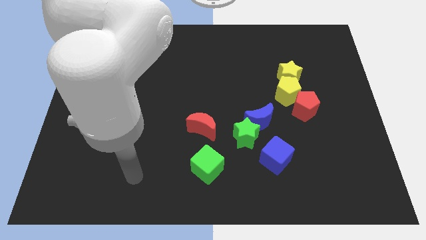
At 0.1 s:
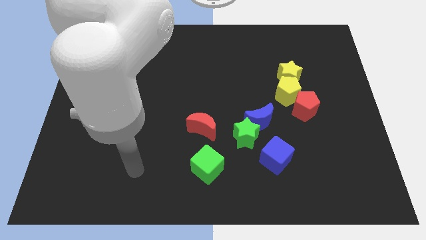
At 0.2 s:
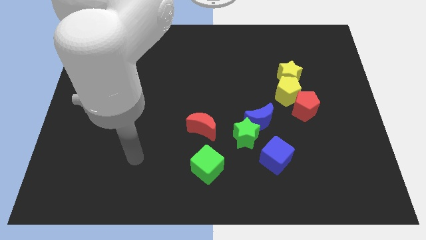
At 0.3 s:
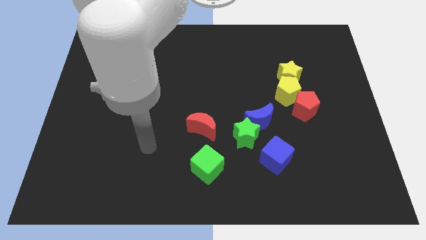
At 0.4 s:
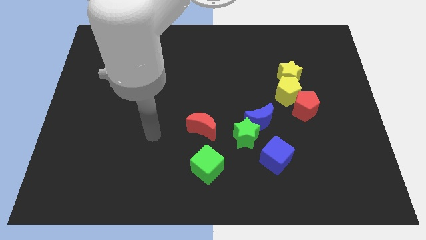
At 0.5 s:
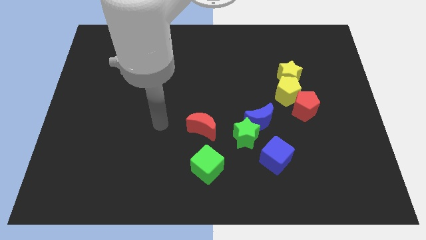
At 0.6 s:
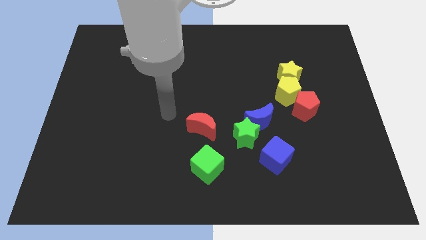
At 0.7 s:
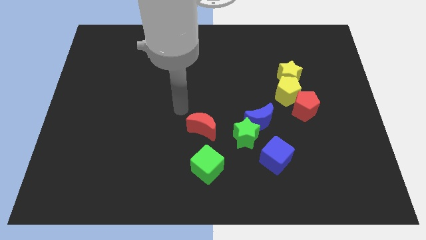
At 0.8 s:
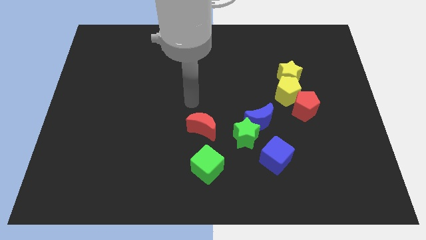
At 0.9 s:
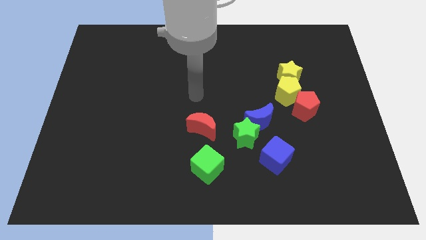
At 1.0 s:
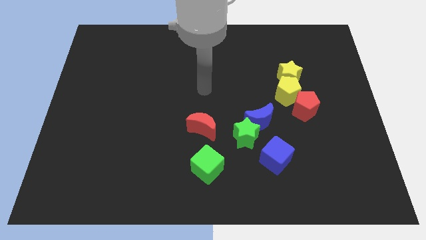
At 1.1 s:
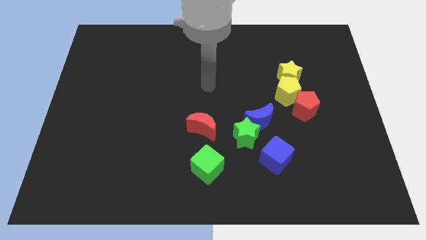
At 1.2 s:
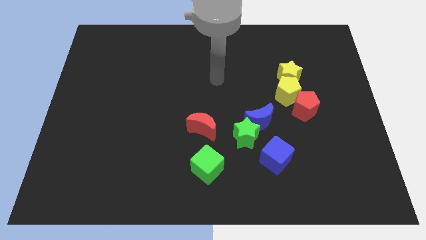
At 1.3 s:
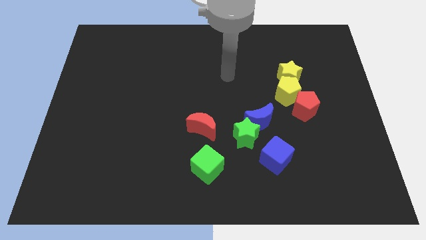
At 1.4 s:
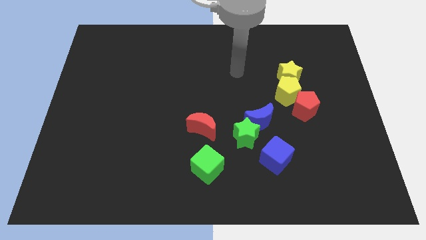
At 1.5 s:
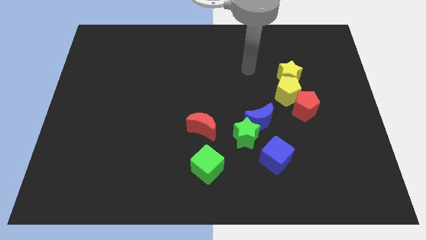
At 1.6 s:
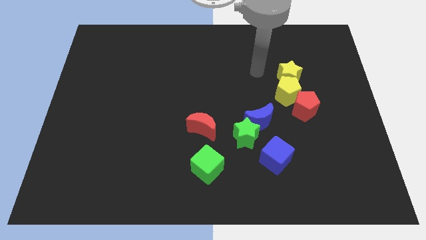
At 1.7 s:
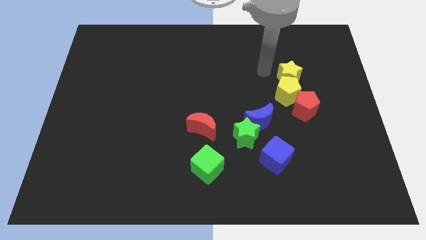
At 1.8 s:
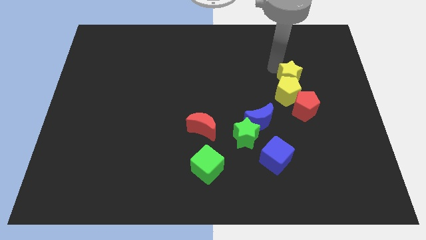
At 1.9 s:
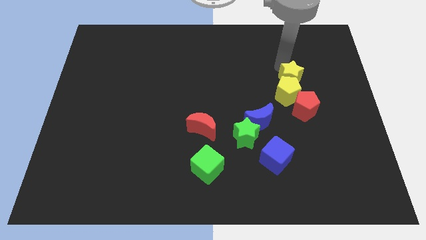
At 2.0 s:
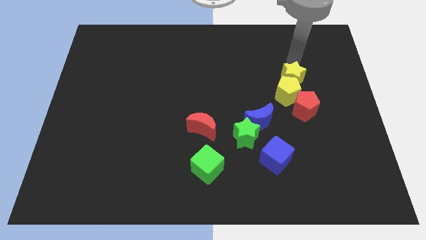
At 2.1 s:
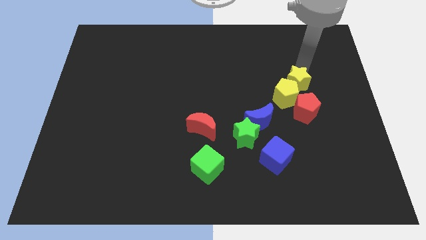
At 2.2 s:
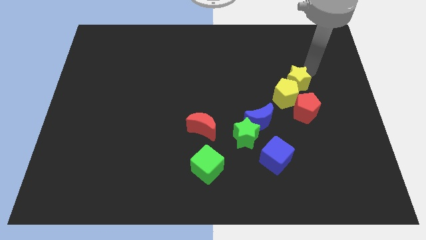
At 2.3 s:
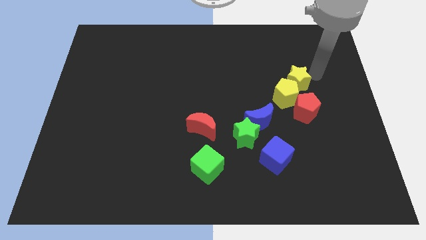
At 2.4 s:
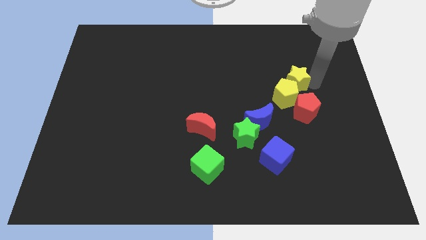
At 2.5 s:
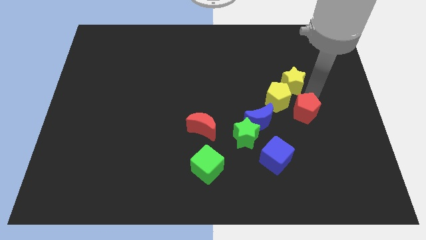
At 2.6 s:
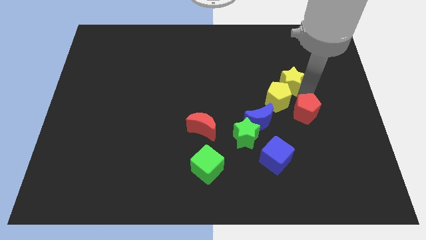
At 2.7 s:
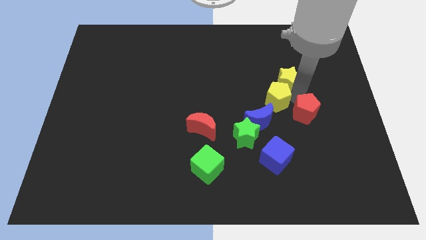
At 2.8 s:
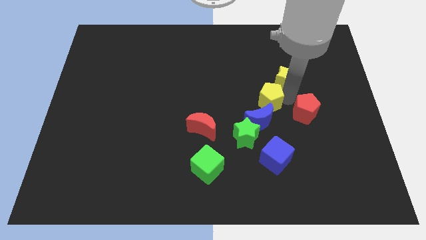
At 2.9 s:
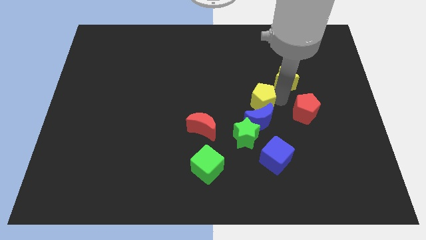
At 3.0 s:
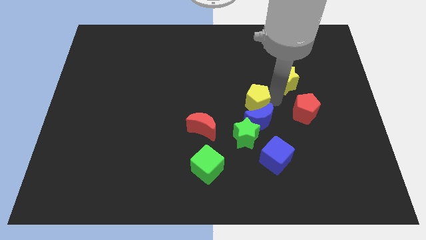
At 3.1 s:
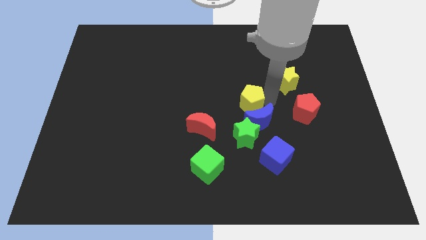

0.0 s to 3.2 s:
move the yellow pentagon away from the yellow star and red pentagon

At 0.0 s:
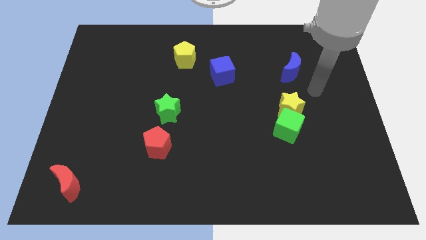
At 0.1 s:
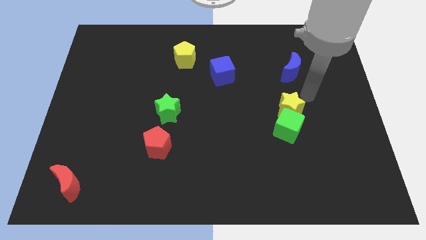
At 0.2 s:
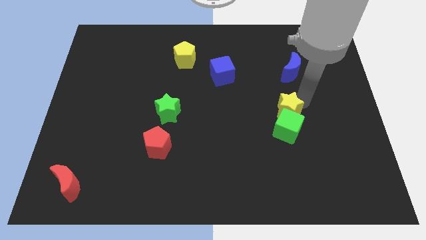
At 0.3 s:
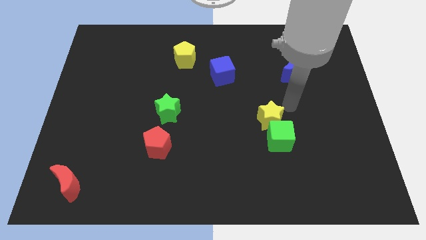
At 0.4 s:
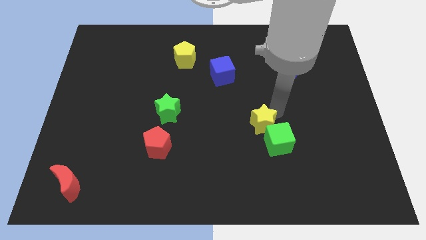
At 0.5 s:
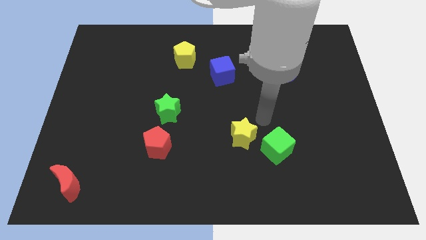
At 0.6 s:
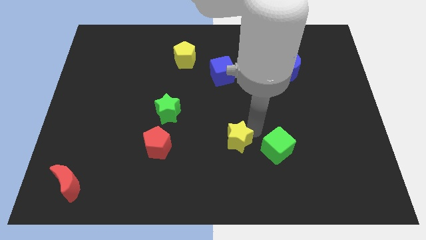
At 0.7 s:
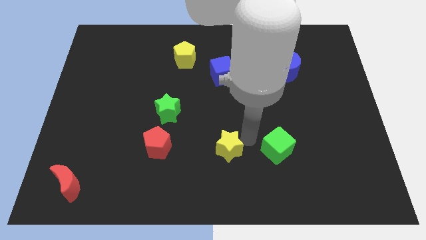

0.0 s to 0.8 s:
pull the green cube apart from the yellow star

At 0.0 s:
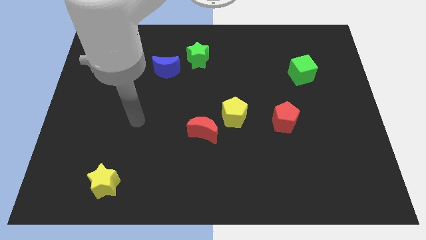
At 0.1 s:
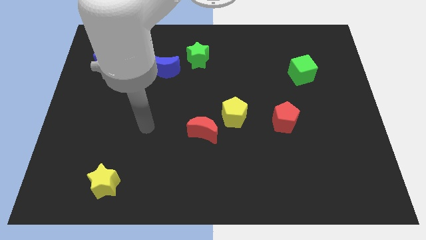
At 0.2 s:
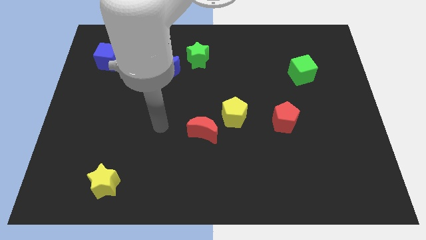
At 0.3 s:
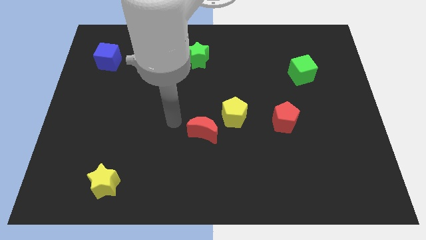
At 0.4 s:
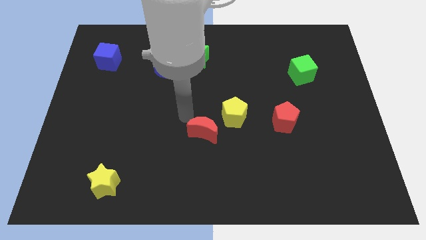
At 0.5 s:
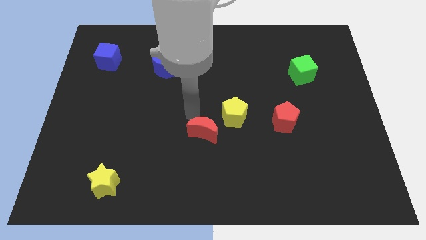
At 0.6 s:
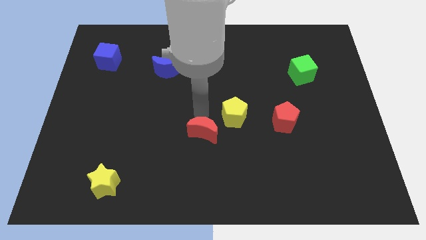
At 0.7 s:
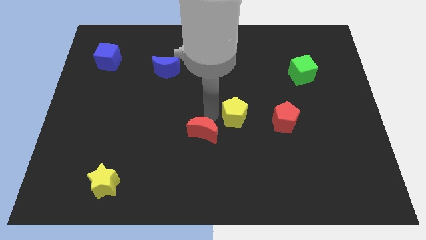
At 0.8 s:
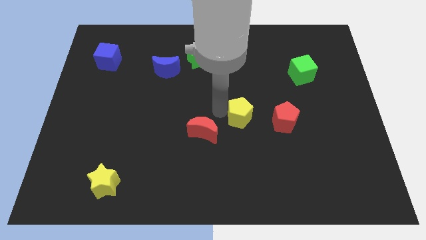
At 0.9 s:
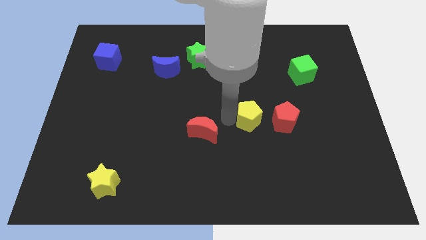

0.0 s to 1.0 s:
separate the red moon from the yellow pentagon

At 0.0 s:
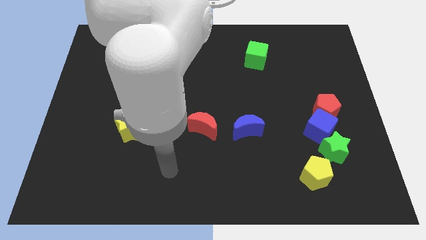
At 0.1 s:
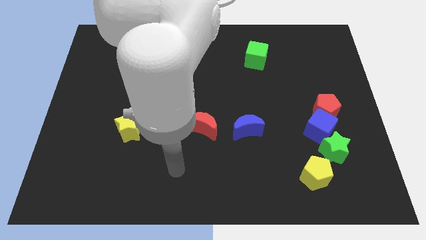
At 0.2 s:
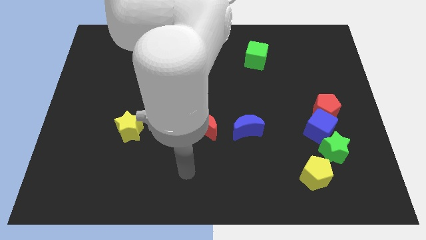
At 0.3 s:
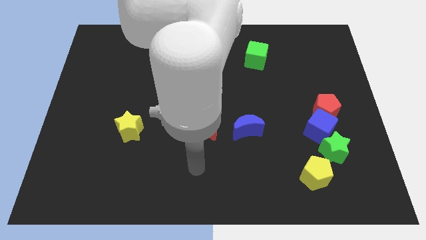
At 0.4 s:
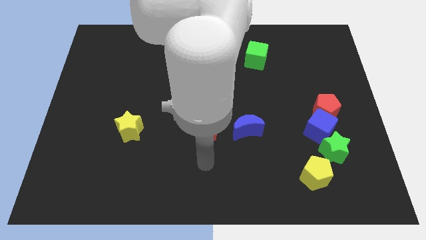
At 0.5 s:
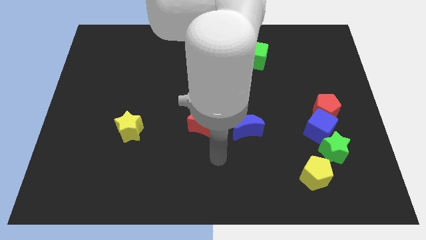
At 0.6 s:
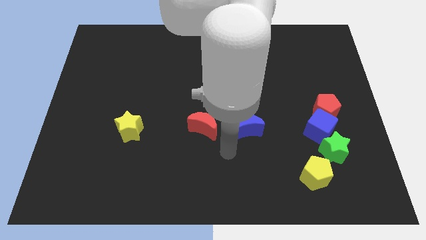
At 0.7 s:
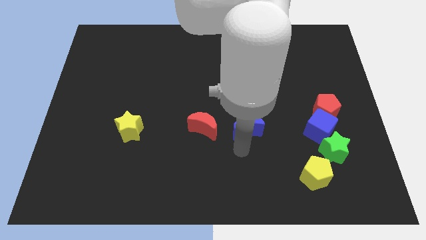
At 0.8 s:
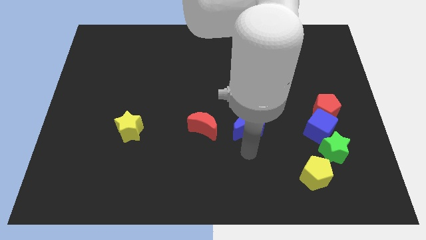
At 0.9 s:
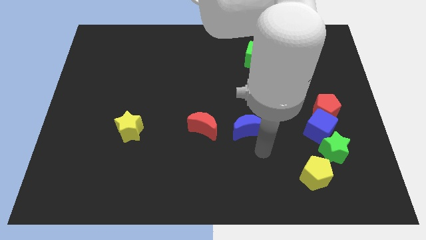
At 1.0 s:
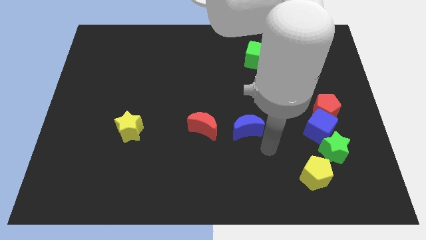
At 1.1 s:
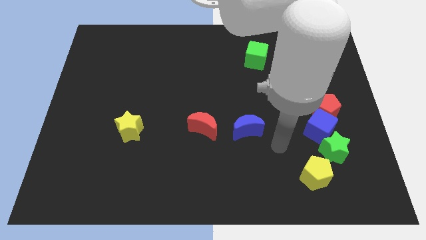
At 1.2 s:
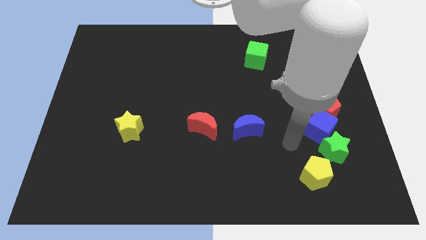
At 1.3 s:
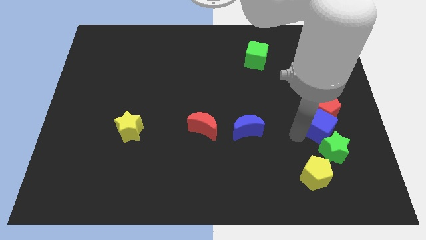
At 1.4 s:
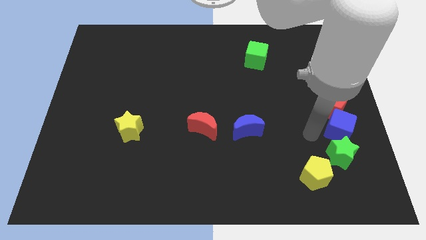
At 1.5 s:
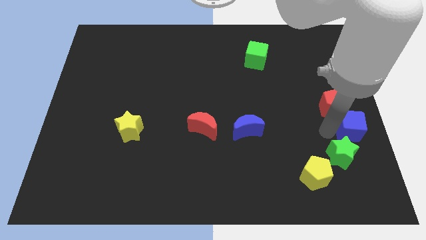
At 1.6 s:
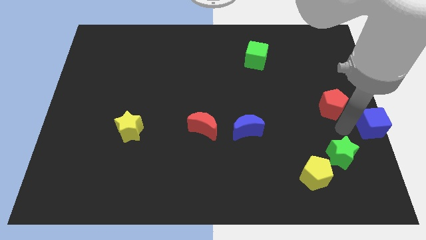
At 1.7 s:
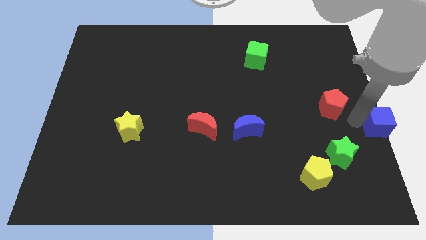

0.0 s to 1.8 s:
move the red pentagon away from the blue cube

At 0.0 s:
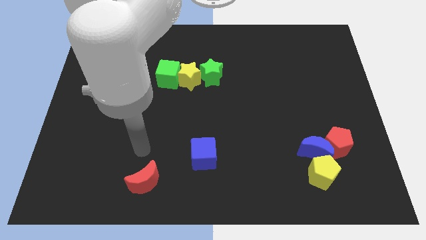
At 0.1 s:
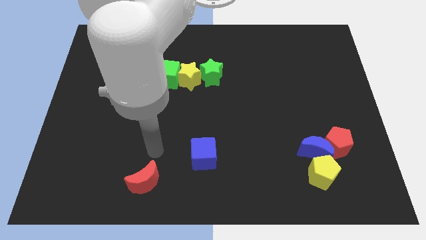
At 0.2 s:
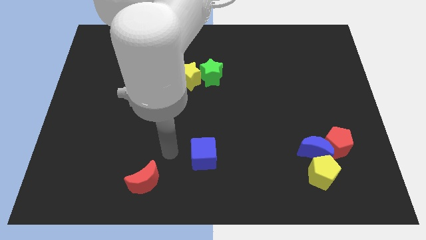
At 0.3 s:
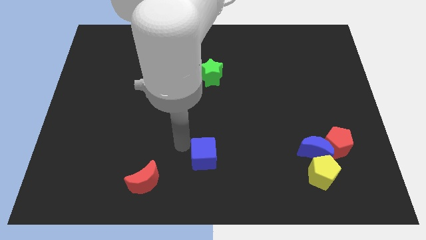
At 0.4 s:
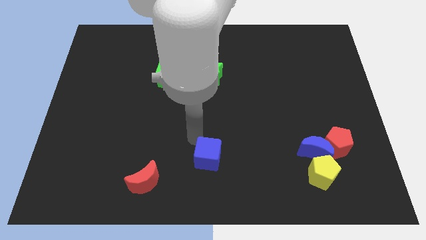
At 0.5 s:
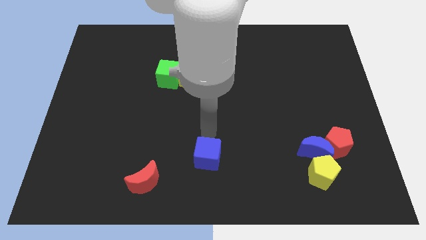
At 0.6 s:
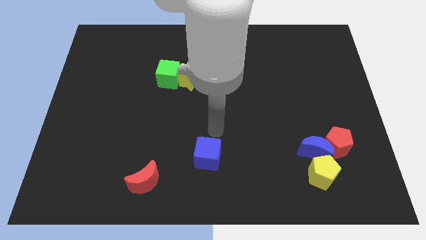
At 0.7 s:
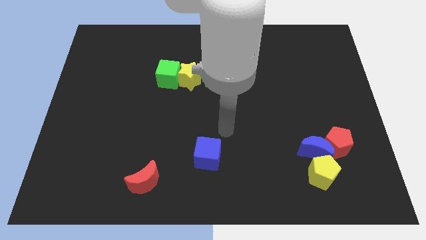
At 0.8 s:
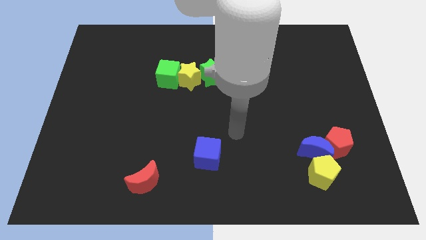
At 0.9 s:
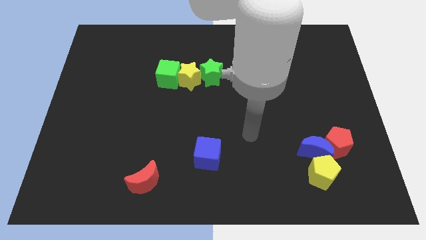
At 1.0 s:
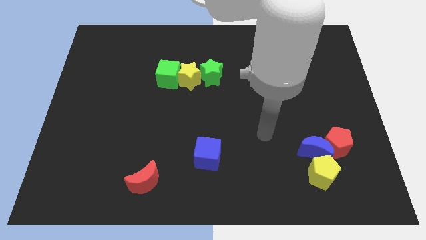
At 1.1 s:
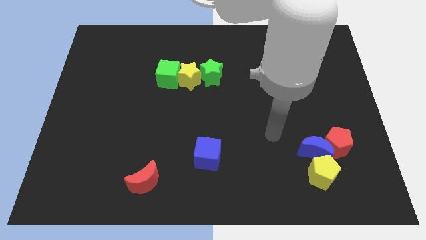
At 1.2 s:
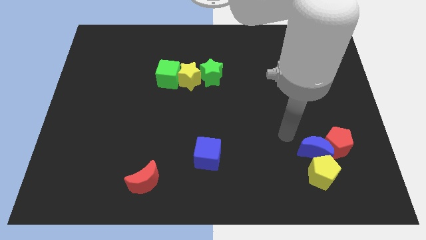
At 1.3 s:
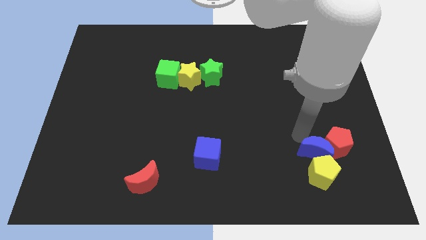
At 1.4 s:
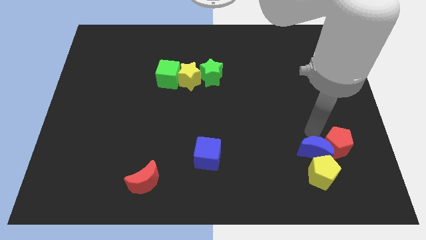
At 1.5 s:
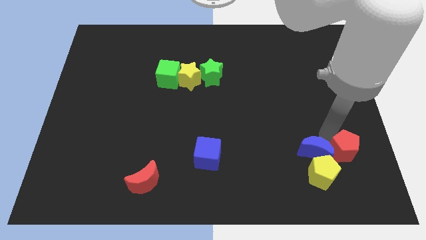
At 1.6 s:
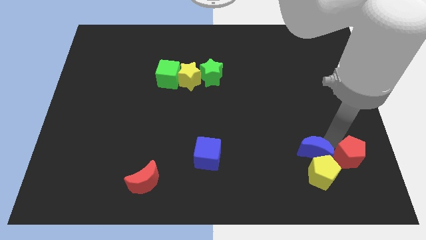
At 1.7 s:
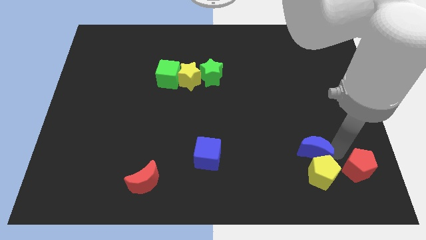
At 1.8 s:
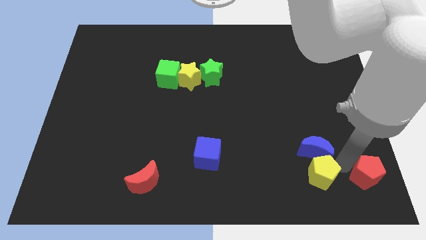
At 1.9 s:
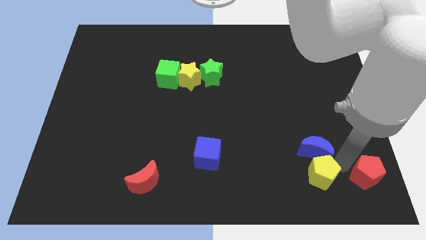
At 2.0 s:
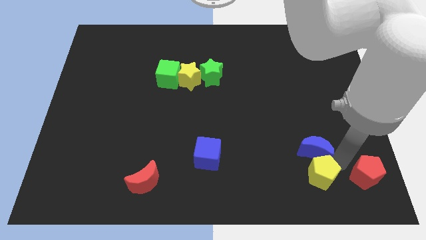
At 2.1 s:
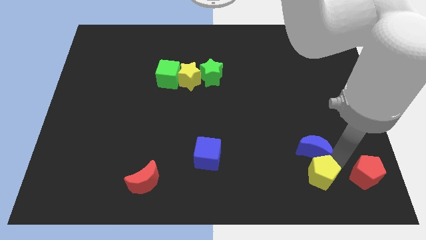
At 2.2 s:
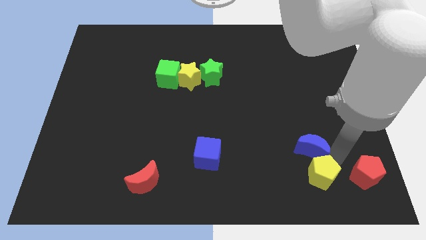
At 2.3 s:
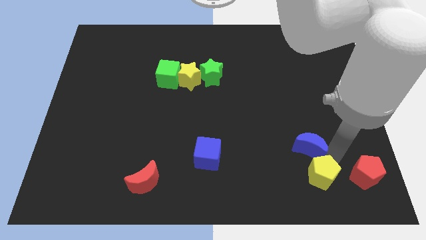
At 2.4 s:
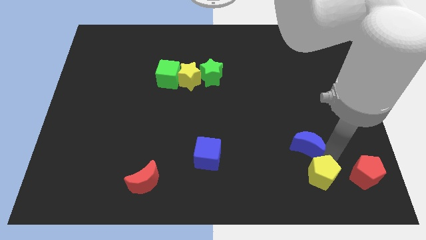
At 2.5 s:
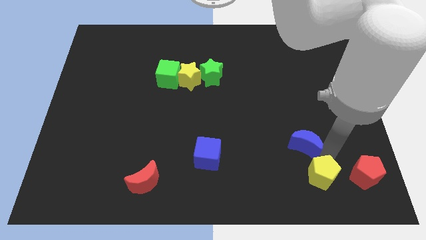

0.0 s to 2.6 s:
separate the blue moon from the red pentagon and yellow pentagon
